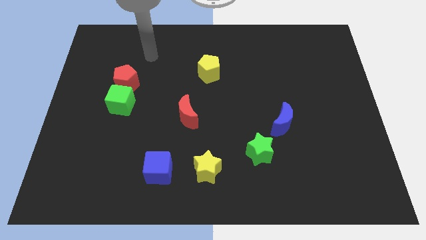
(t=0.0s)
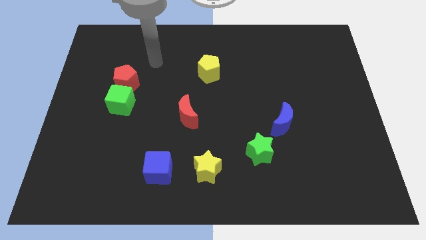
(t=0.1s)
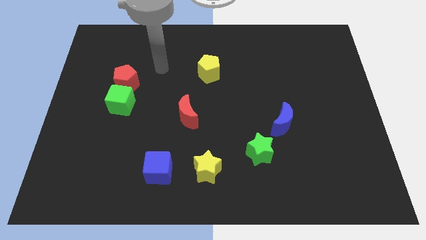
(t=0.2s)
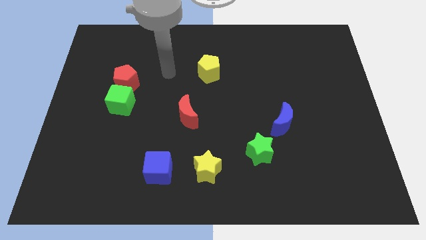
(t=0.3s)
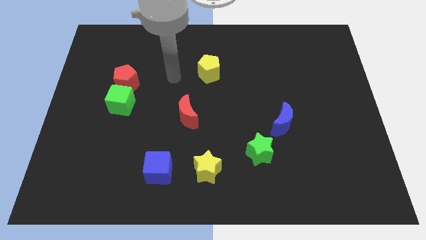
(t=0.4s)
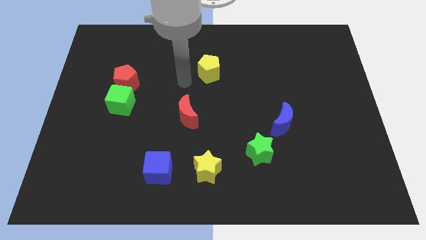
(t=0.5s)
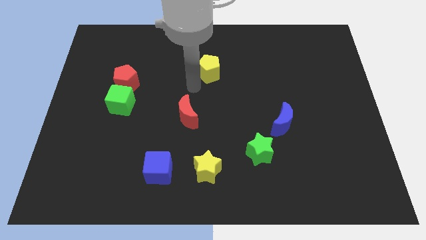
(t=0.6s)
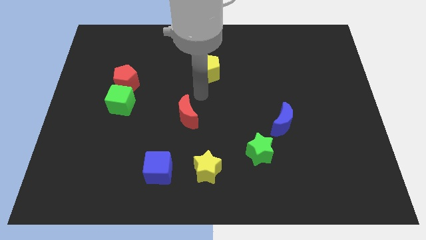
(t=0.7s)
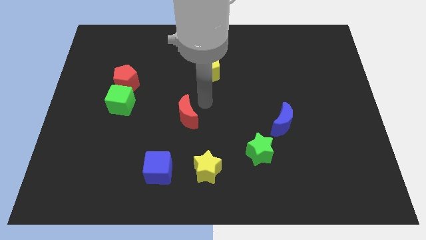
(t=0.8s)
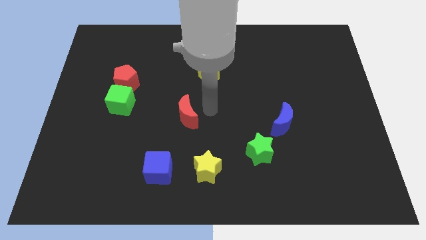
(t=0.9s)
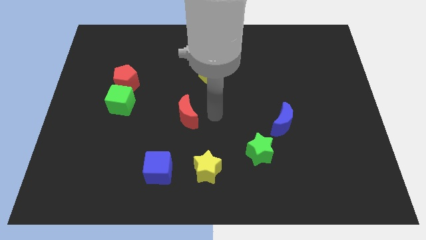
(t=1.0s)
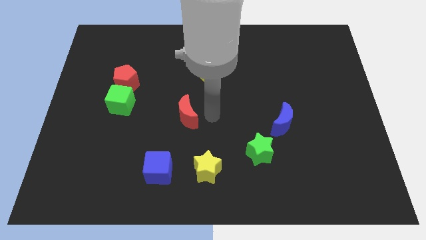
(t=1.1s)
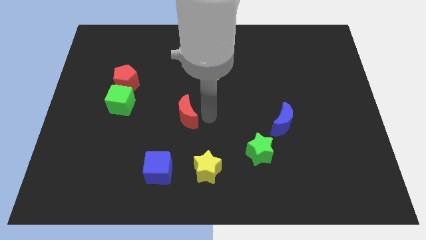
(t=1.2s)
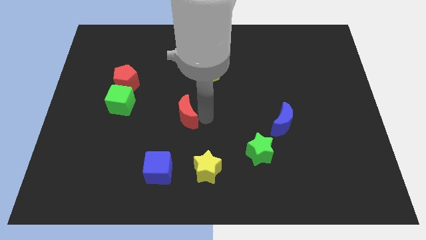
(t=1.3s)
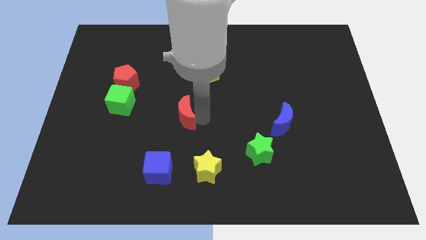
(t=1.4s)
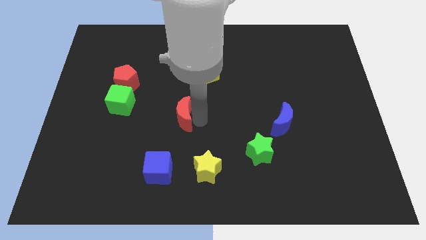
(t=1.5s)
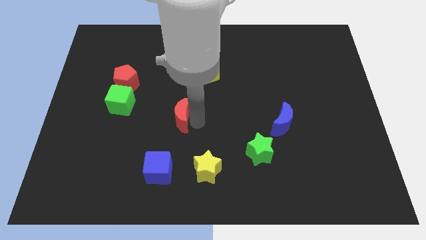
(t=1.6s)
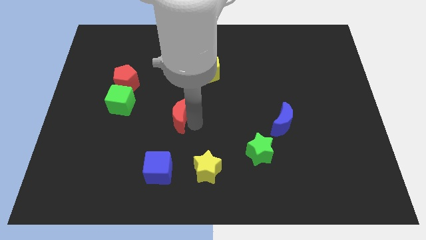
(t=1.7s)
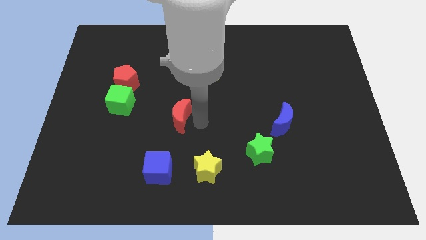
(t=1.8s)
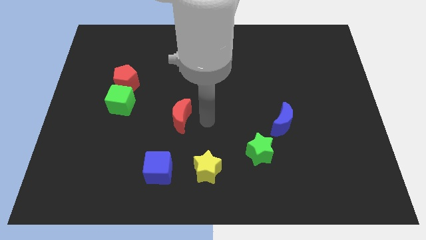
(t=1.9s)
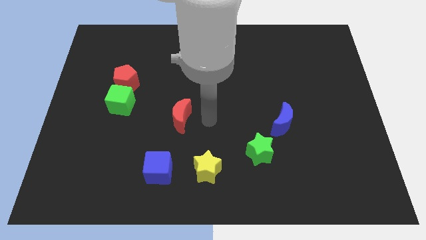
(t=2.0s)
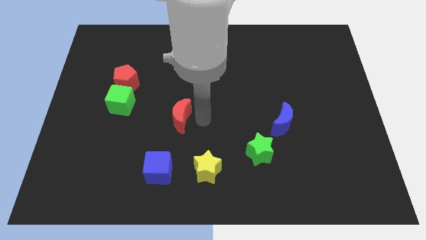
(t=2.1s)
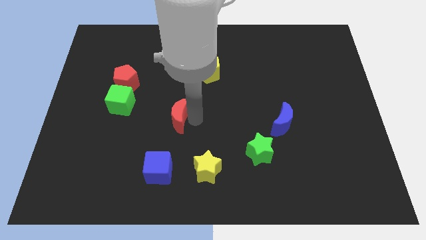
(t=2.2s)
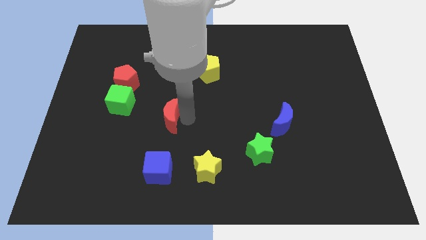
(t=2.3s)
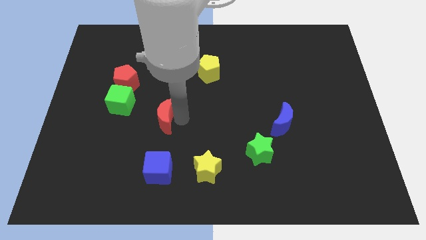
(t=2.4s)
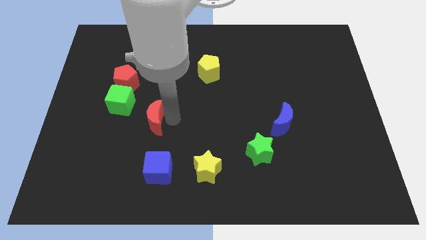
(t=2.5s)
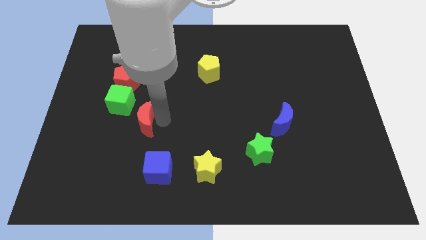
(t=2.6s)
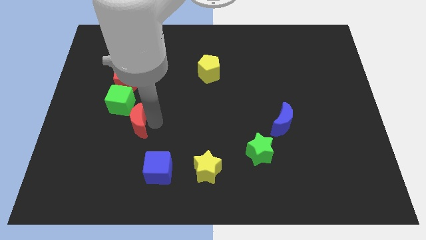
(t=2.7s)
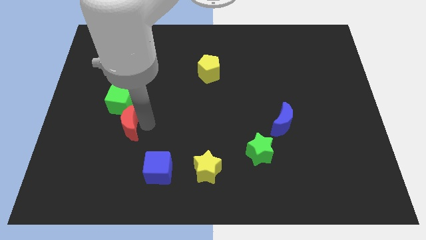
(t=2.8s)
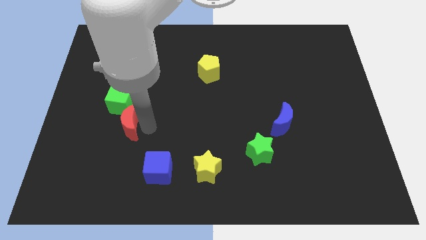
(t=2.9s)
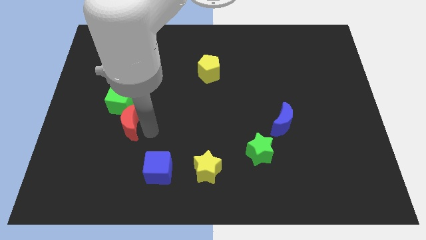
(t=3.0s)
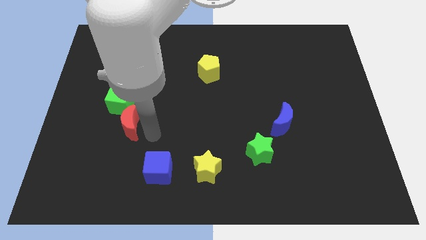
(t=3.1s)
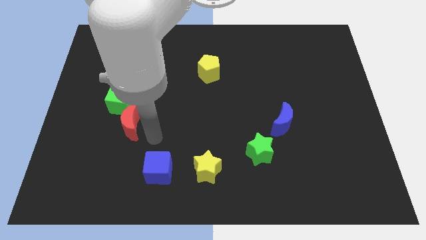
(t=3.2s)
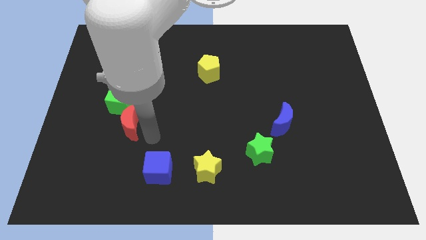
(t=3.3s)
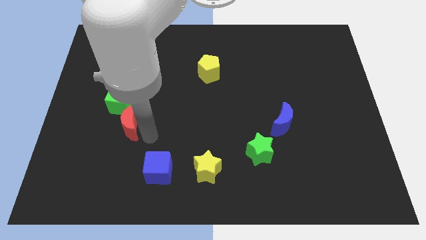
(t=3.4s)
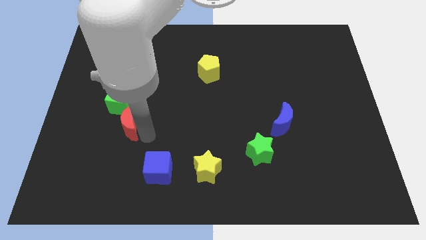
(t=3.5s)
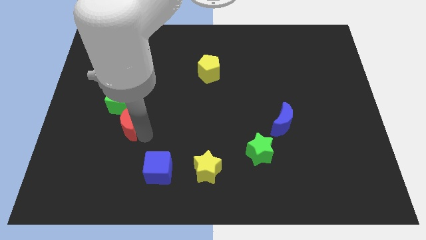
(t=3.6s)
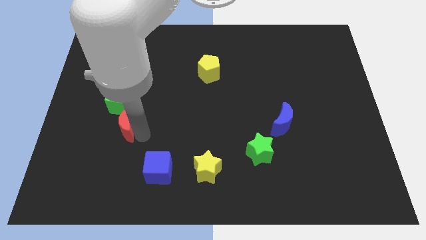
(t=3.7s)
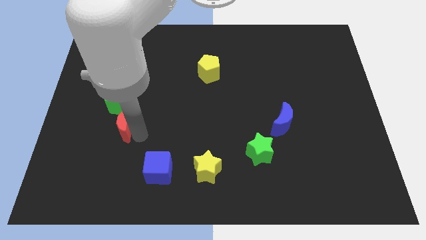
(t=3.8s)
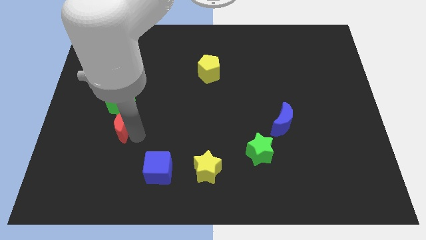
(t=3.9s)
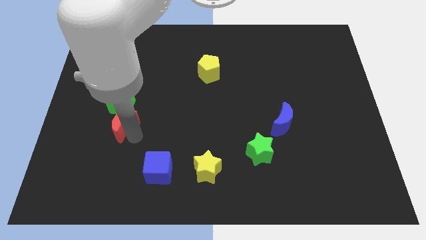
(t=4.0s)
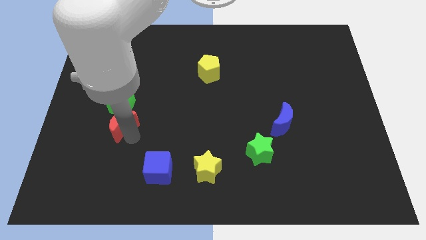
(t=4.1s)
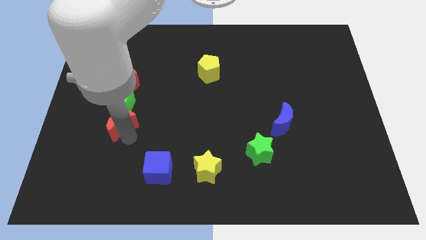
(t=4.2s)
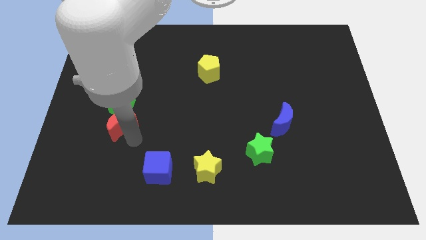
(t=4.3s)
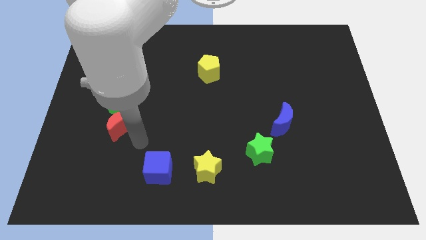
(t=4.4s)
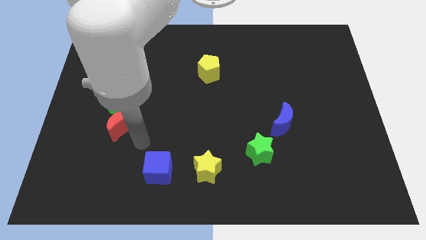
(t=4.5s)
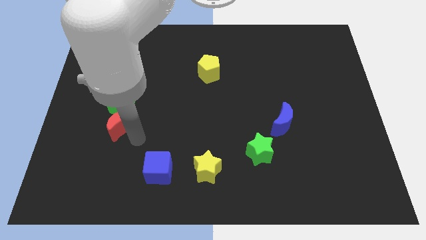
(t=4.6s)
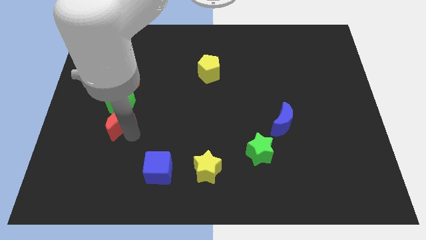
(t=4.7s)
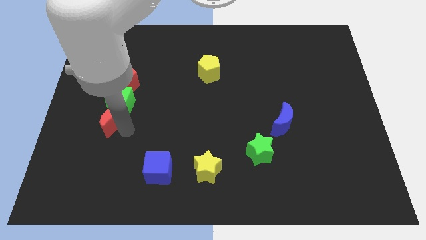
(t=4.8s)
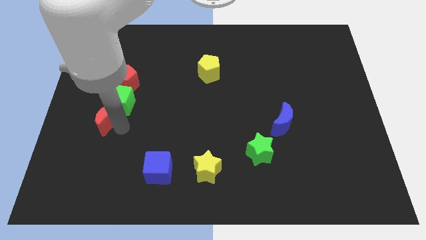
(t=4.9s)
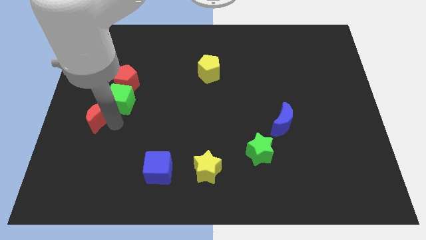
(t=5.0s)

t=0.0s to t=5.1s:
slide the red moon to the left side of the board

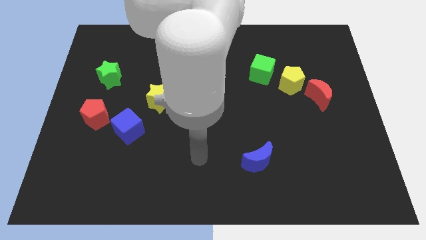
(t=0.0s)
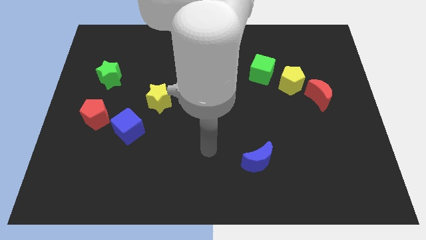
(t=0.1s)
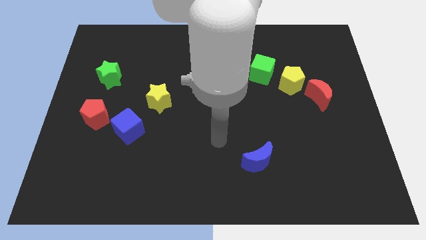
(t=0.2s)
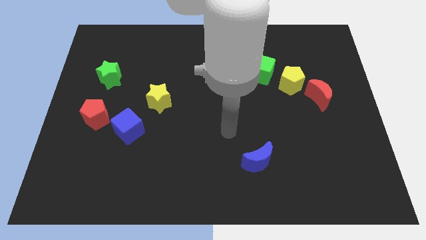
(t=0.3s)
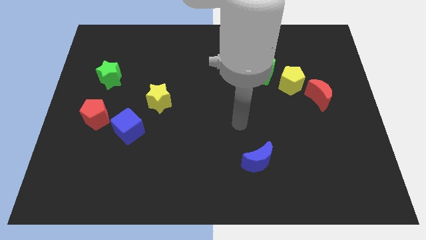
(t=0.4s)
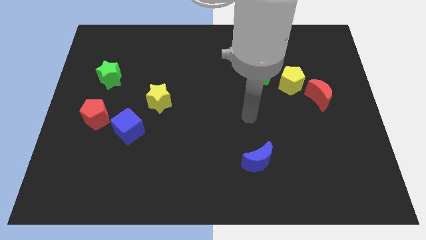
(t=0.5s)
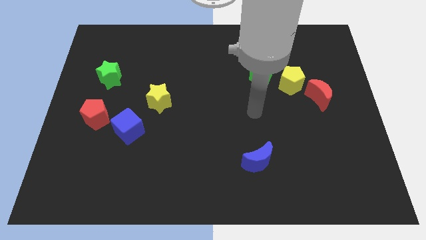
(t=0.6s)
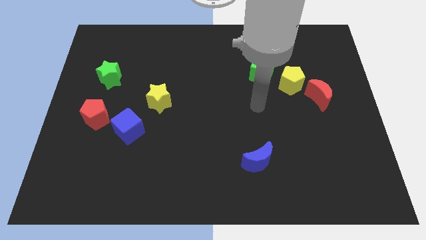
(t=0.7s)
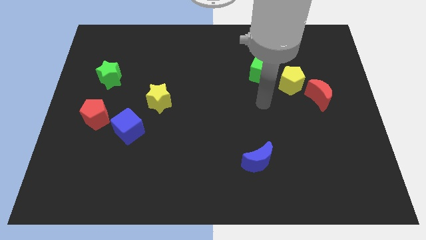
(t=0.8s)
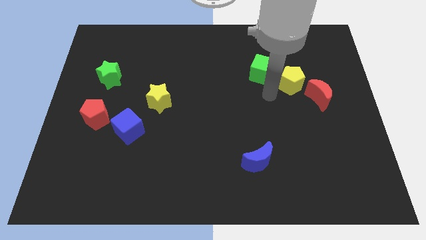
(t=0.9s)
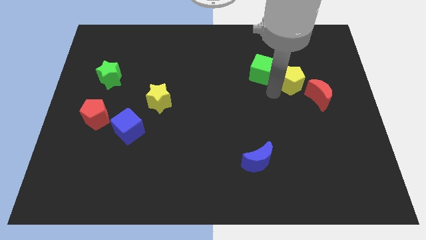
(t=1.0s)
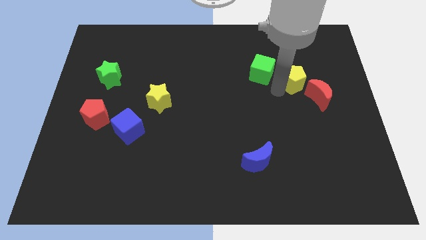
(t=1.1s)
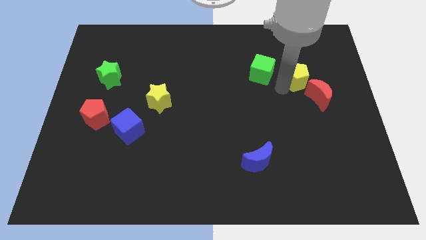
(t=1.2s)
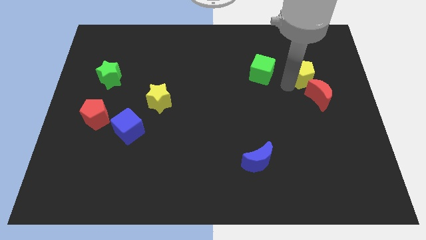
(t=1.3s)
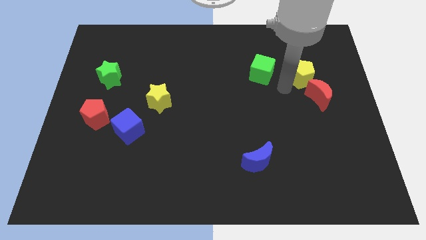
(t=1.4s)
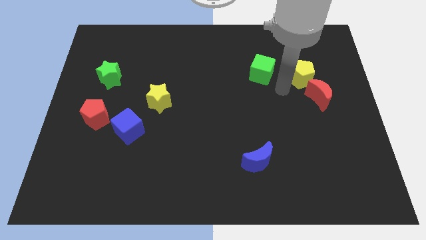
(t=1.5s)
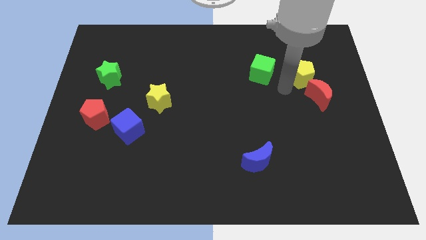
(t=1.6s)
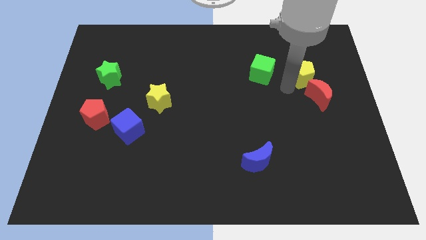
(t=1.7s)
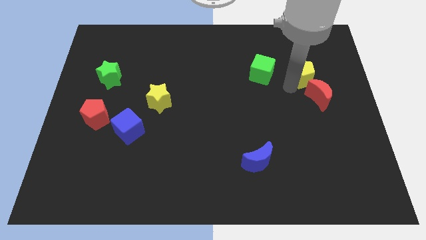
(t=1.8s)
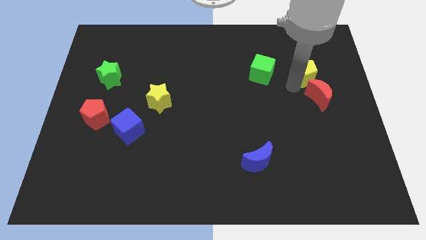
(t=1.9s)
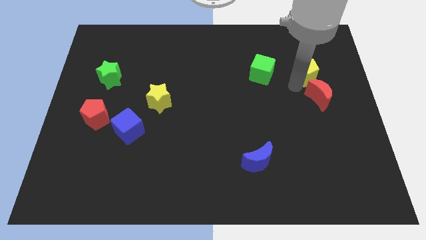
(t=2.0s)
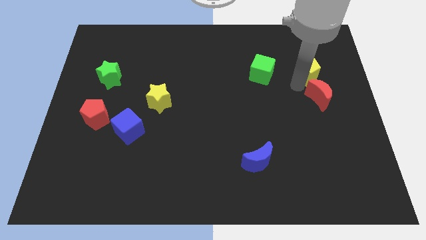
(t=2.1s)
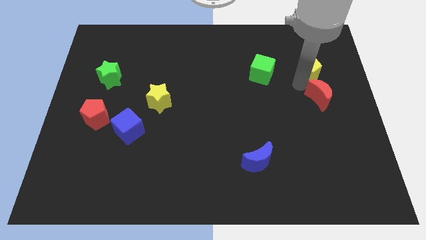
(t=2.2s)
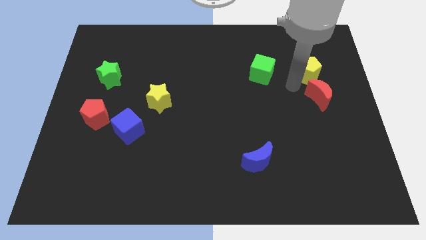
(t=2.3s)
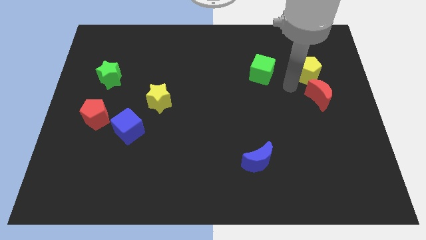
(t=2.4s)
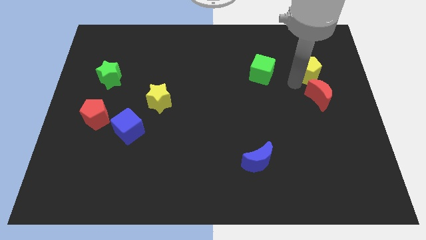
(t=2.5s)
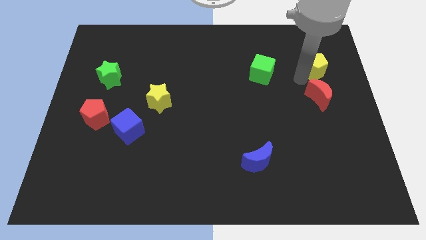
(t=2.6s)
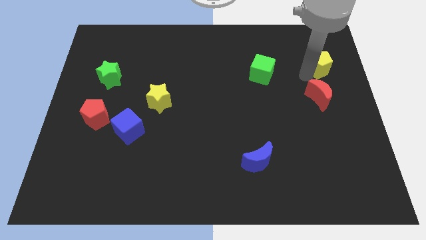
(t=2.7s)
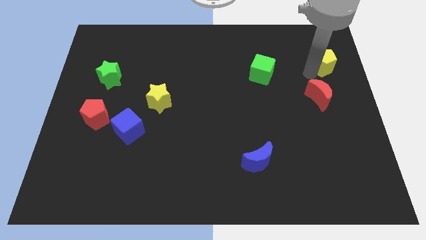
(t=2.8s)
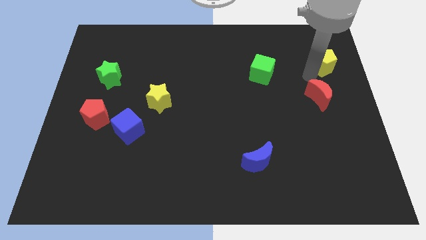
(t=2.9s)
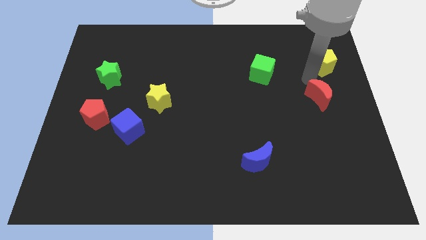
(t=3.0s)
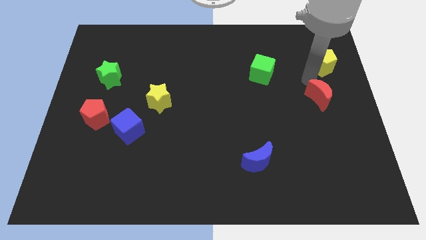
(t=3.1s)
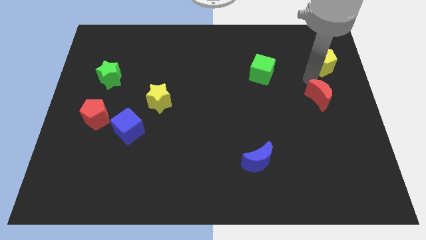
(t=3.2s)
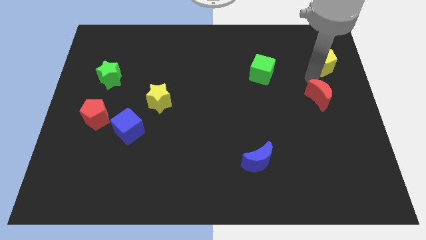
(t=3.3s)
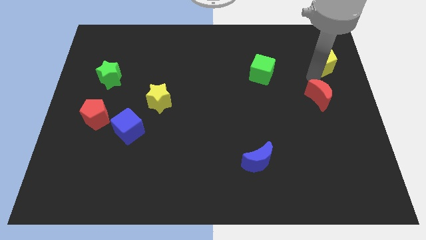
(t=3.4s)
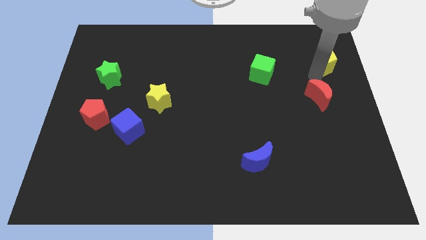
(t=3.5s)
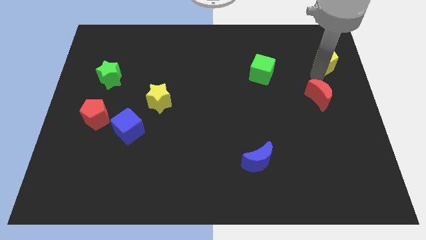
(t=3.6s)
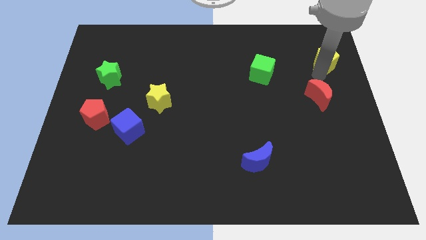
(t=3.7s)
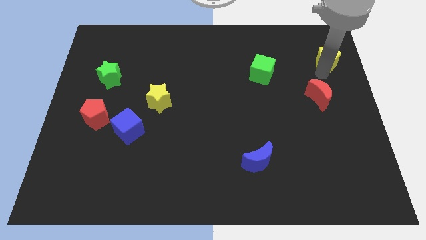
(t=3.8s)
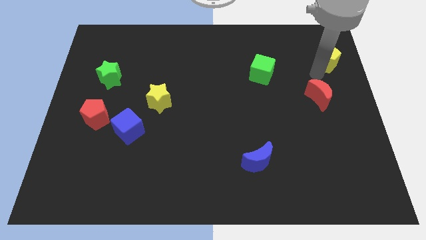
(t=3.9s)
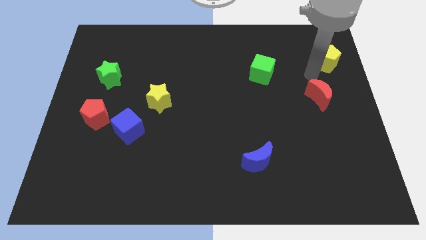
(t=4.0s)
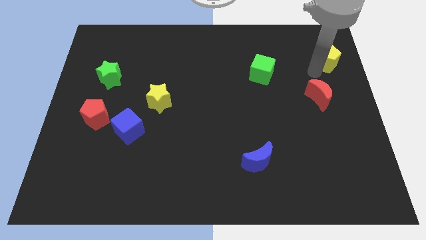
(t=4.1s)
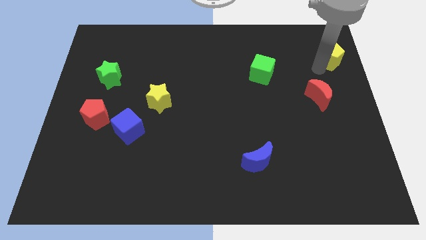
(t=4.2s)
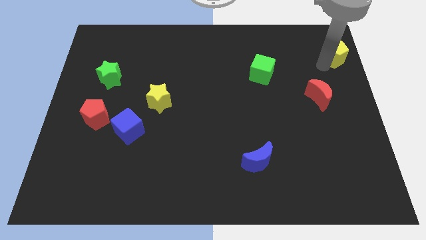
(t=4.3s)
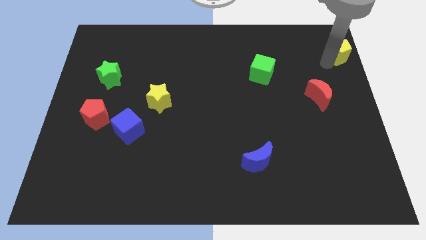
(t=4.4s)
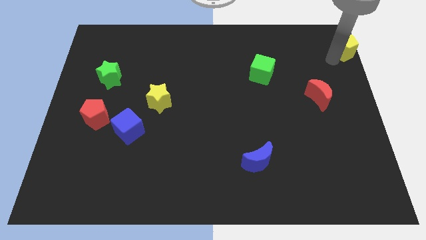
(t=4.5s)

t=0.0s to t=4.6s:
move the yellow pentagon to the upper right corner
